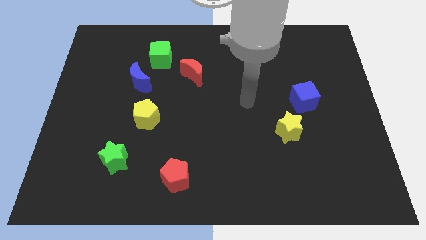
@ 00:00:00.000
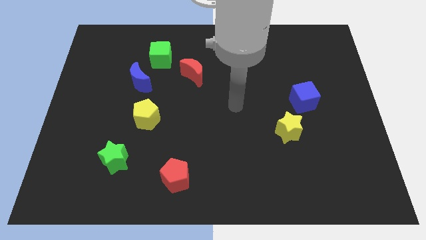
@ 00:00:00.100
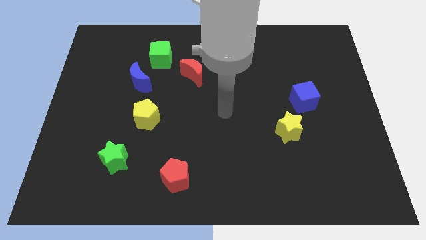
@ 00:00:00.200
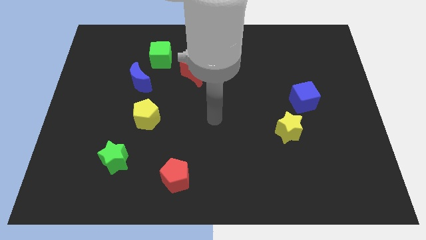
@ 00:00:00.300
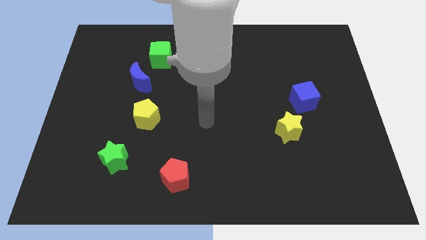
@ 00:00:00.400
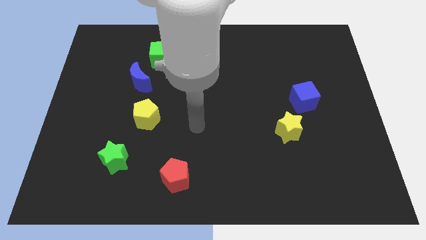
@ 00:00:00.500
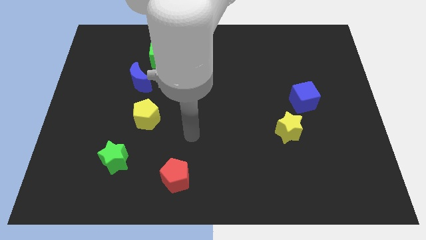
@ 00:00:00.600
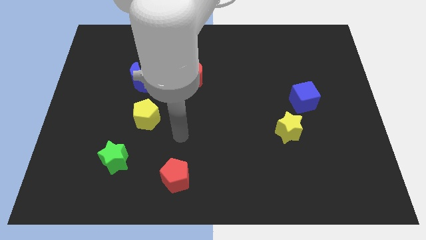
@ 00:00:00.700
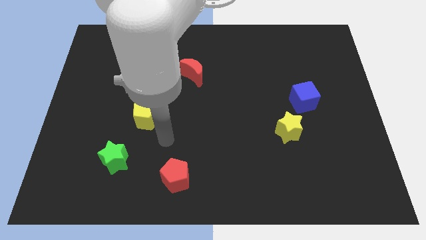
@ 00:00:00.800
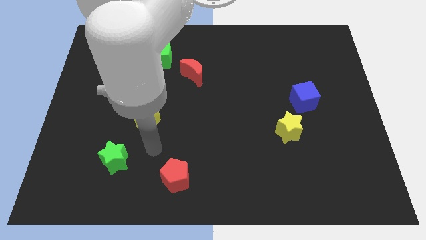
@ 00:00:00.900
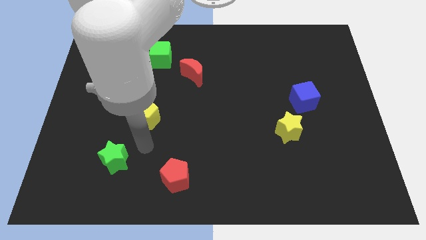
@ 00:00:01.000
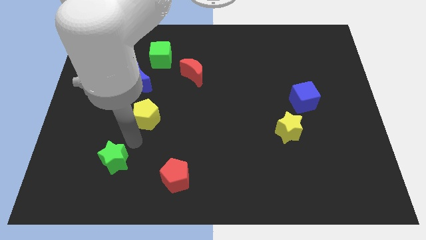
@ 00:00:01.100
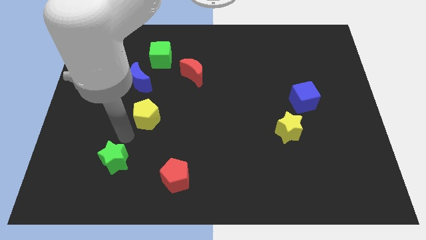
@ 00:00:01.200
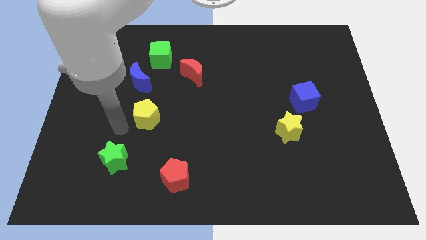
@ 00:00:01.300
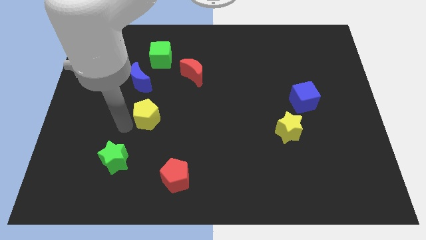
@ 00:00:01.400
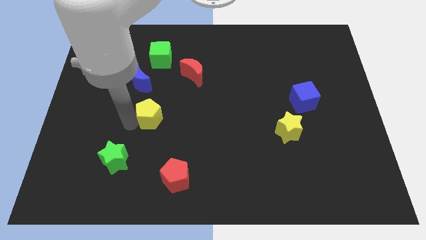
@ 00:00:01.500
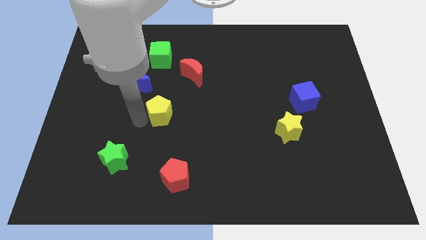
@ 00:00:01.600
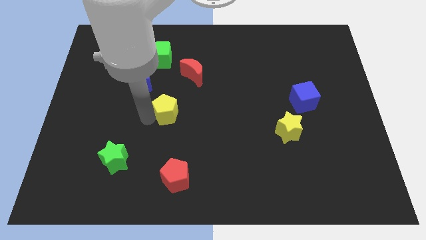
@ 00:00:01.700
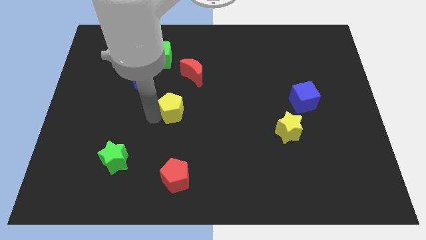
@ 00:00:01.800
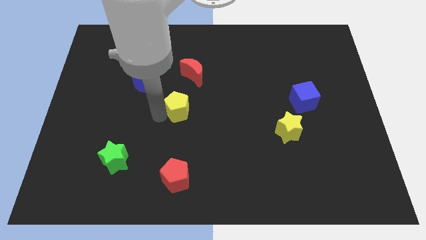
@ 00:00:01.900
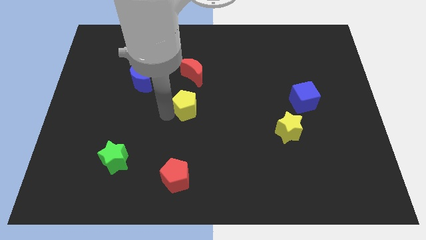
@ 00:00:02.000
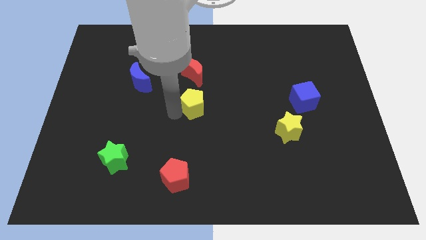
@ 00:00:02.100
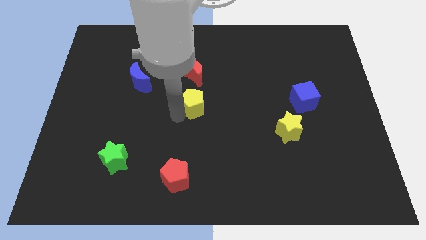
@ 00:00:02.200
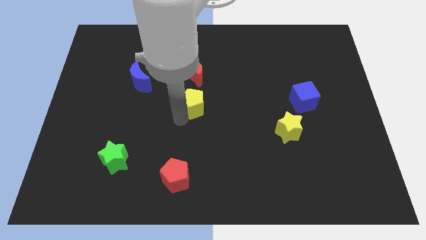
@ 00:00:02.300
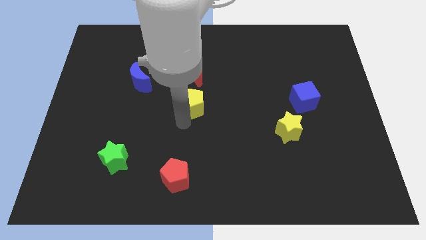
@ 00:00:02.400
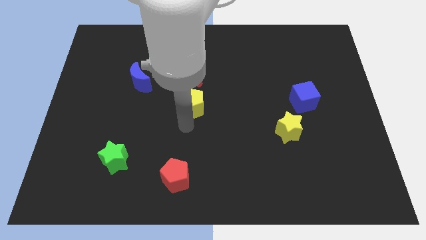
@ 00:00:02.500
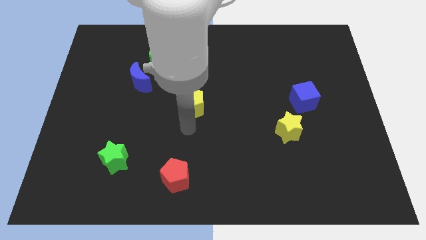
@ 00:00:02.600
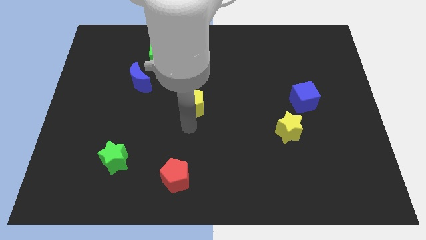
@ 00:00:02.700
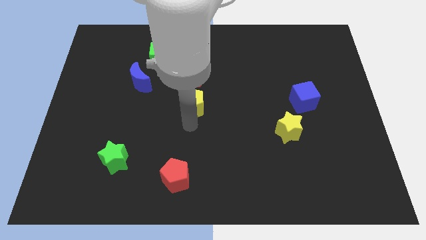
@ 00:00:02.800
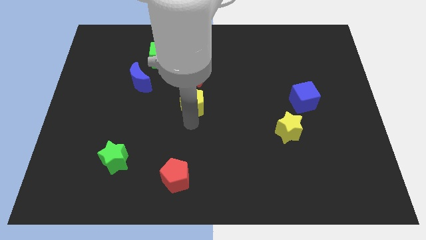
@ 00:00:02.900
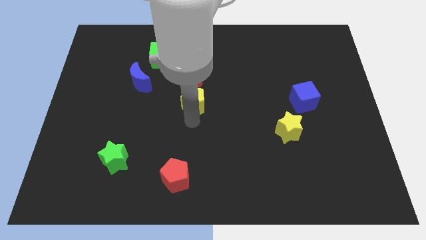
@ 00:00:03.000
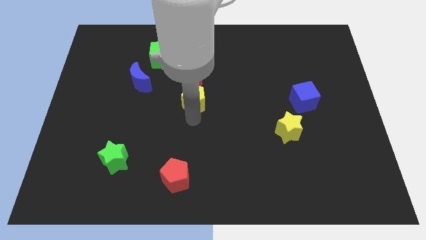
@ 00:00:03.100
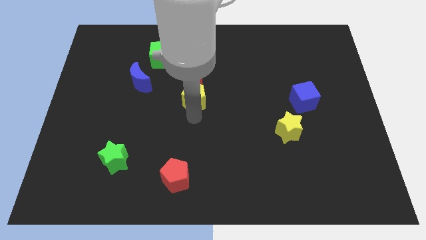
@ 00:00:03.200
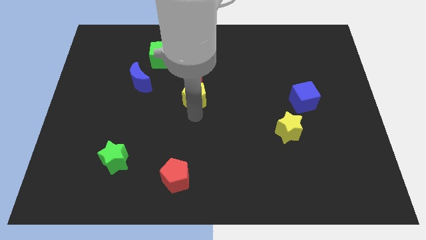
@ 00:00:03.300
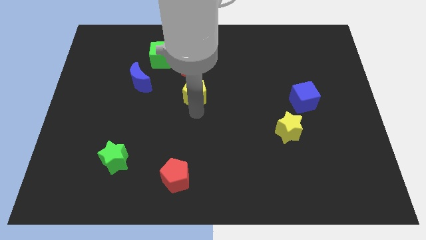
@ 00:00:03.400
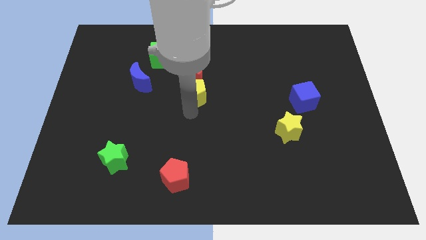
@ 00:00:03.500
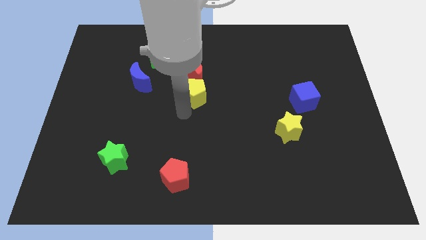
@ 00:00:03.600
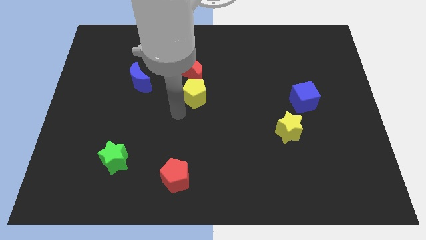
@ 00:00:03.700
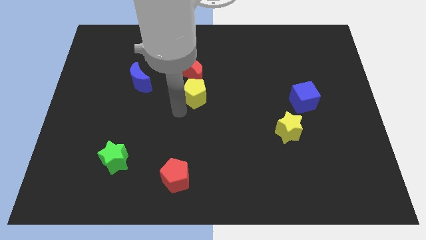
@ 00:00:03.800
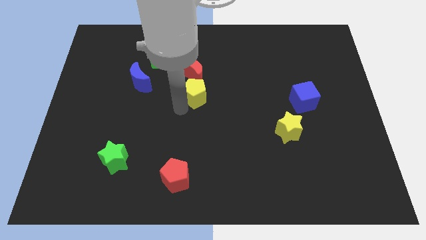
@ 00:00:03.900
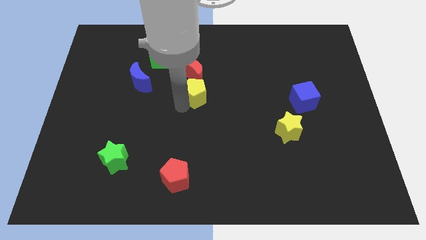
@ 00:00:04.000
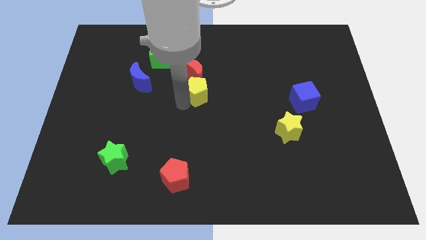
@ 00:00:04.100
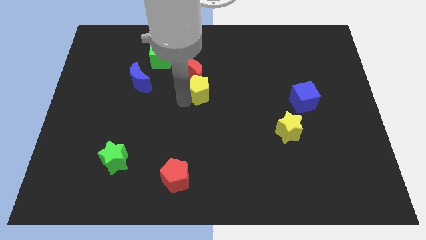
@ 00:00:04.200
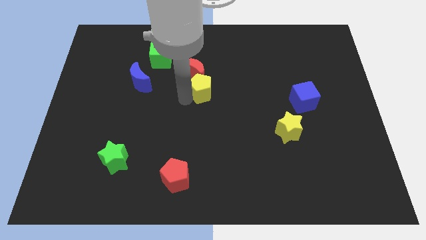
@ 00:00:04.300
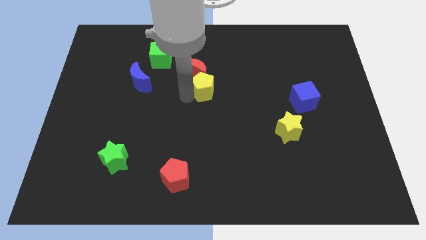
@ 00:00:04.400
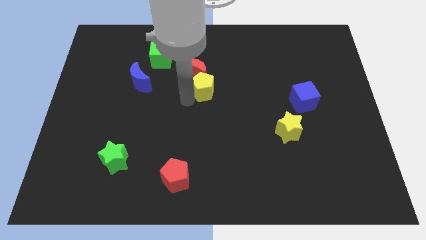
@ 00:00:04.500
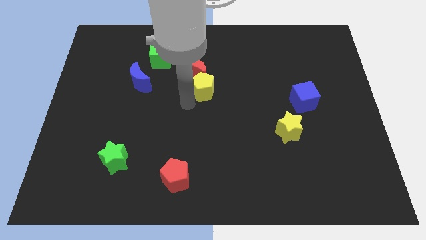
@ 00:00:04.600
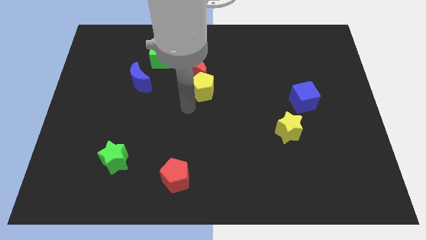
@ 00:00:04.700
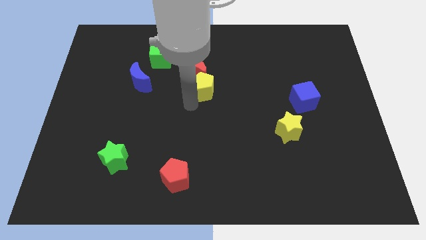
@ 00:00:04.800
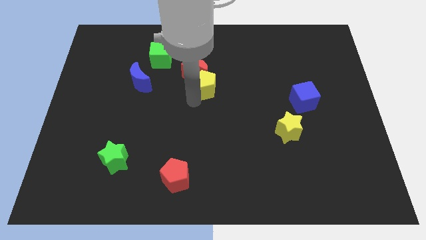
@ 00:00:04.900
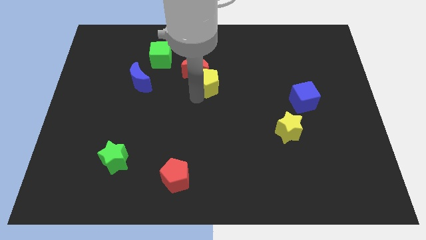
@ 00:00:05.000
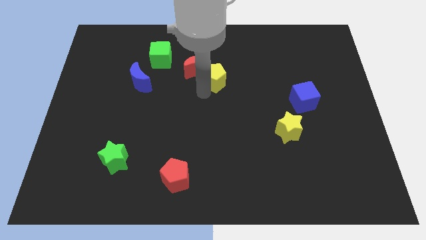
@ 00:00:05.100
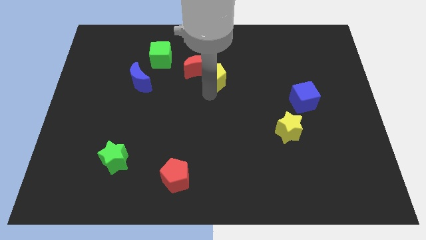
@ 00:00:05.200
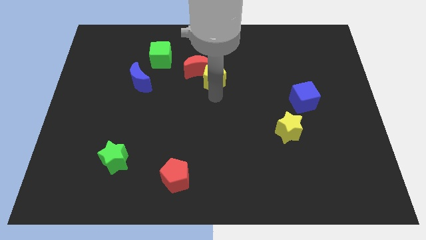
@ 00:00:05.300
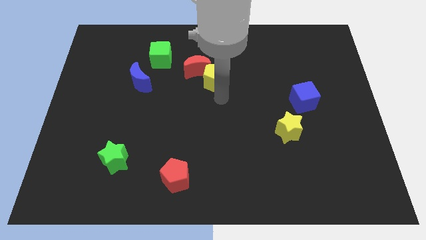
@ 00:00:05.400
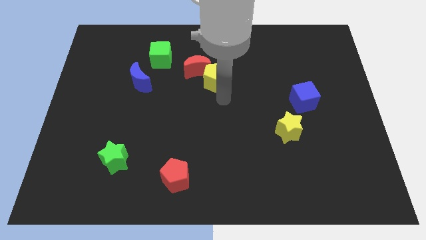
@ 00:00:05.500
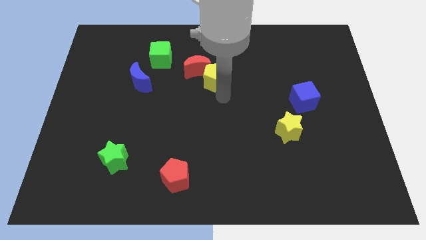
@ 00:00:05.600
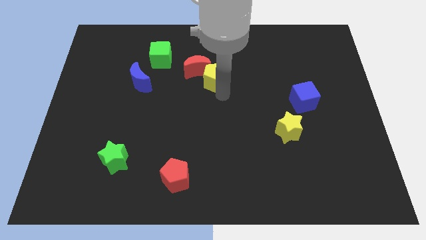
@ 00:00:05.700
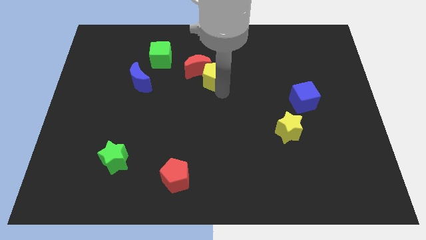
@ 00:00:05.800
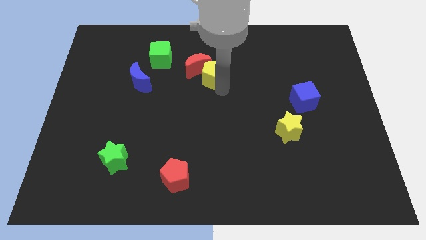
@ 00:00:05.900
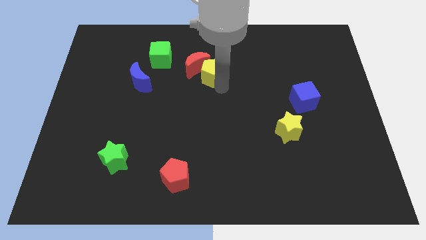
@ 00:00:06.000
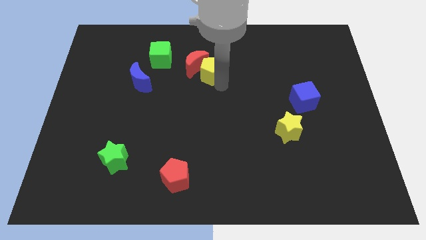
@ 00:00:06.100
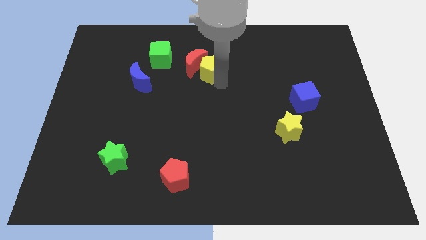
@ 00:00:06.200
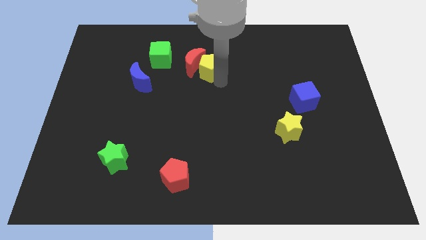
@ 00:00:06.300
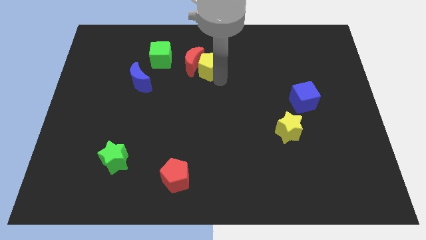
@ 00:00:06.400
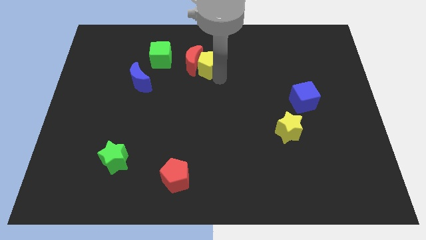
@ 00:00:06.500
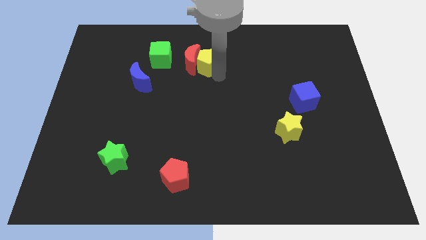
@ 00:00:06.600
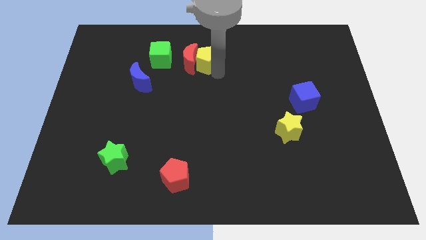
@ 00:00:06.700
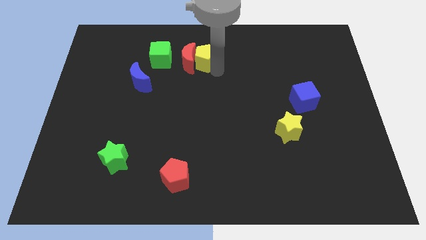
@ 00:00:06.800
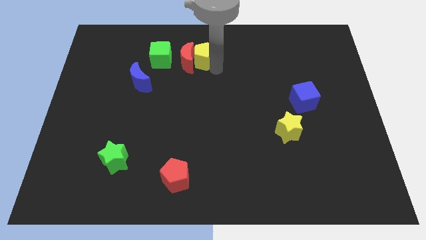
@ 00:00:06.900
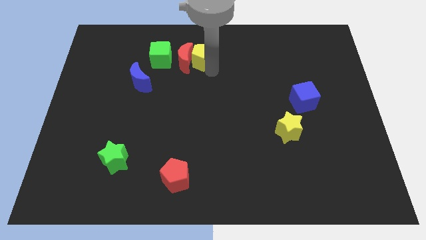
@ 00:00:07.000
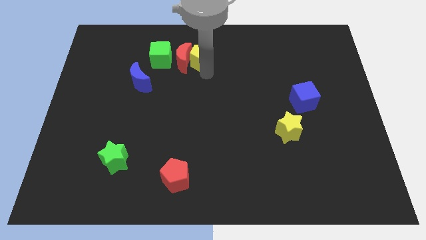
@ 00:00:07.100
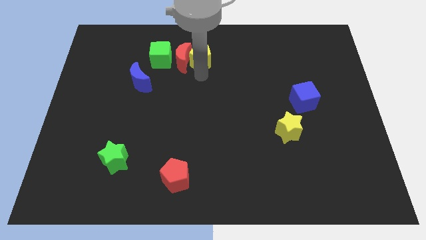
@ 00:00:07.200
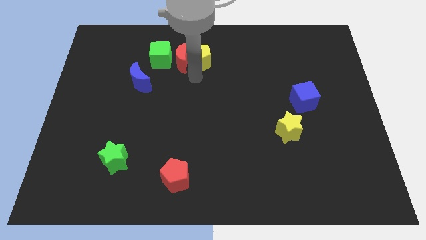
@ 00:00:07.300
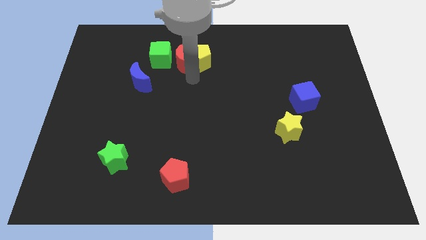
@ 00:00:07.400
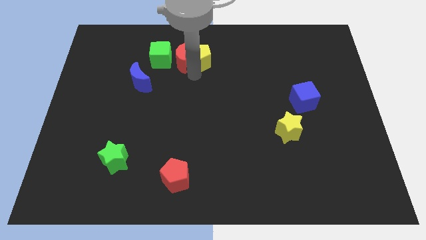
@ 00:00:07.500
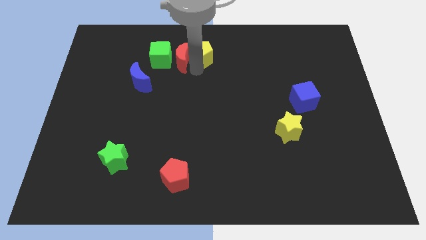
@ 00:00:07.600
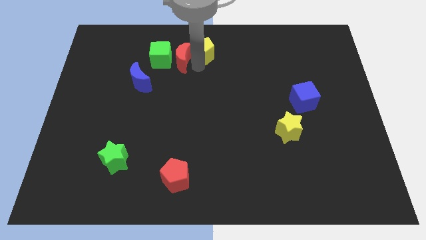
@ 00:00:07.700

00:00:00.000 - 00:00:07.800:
move the yellow pentagon to the top
